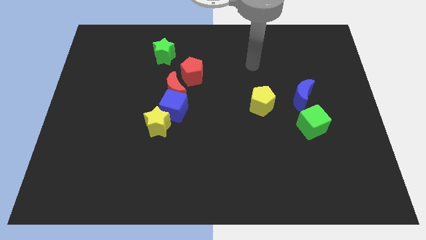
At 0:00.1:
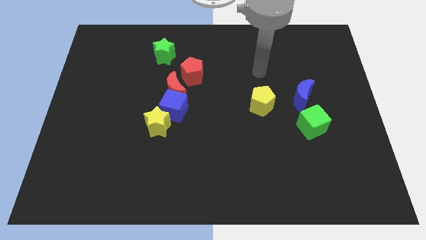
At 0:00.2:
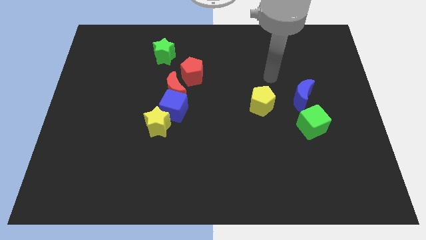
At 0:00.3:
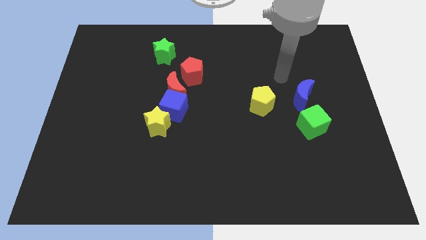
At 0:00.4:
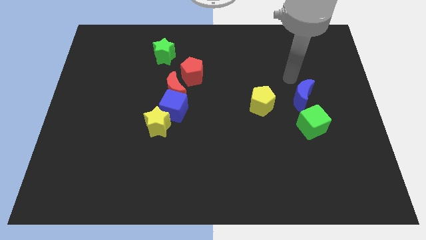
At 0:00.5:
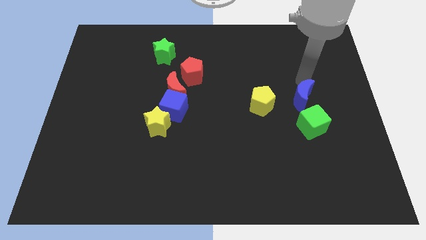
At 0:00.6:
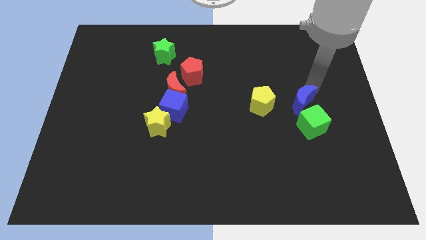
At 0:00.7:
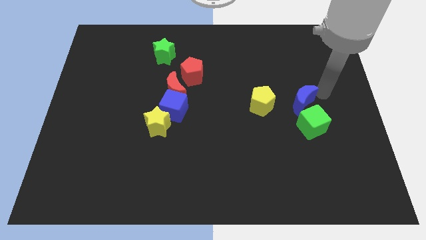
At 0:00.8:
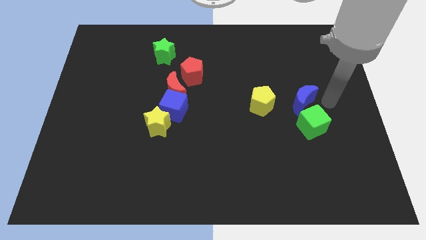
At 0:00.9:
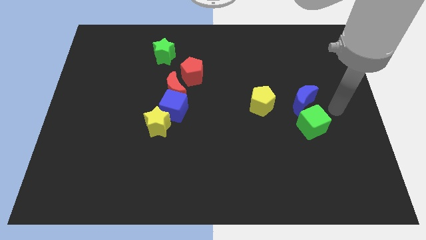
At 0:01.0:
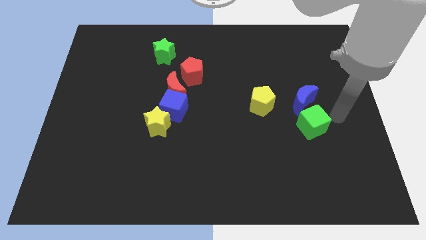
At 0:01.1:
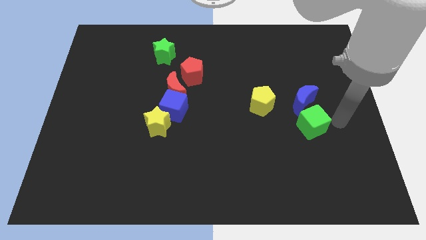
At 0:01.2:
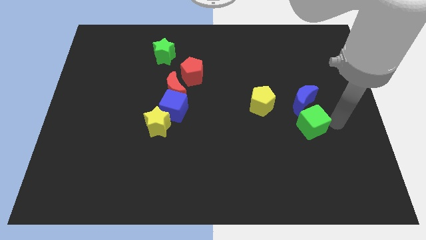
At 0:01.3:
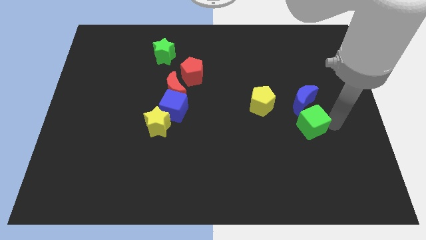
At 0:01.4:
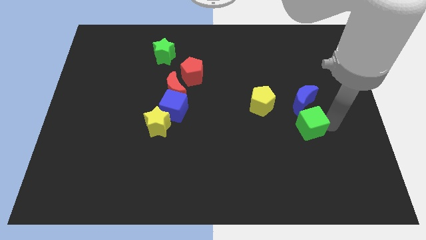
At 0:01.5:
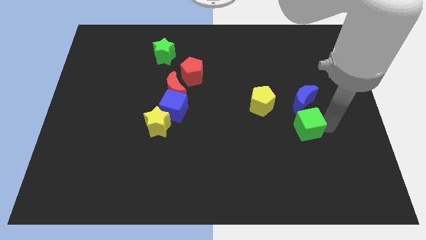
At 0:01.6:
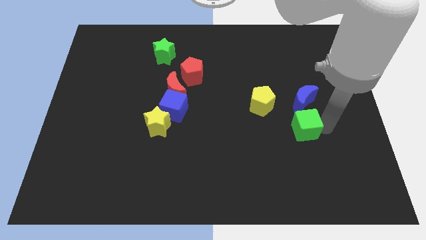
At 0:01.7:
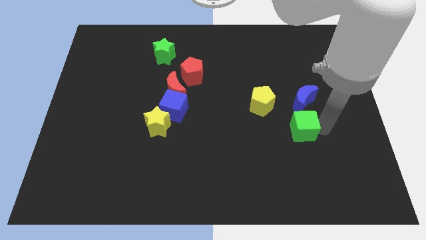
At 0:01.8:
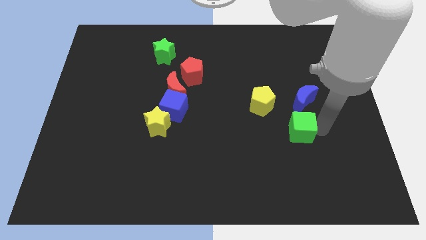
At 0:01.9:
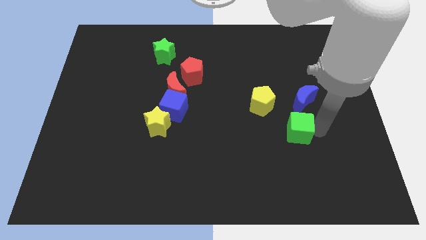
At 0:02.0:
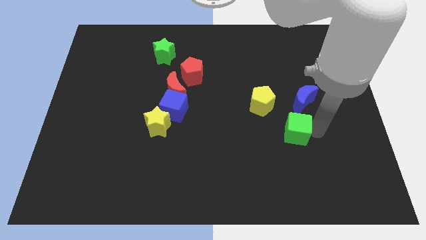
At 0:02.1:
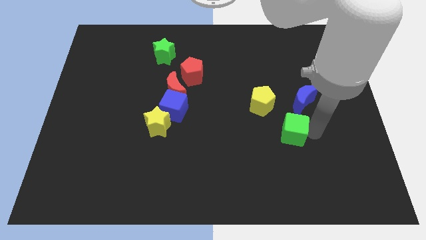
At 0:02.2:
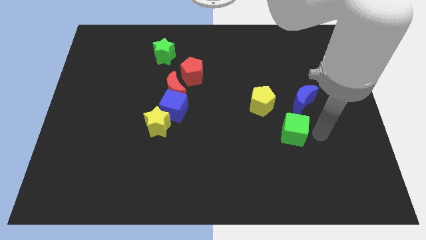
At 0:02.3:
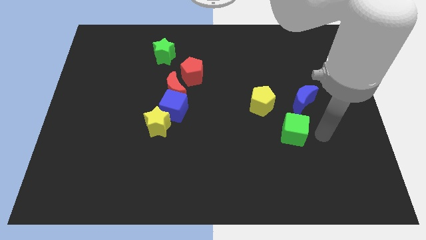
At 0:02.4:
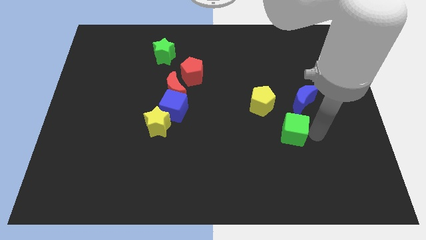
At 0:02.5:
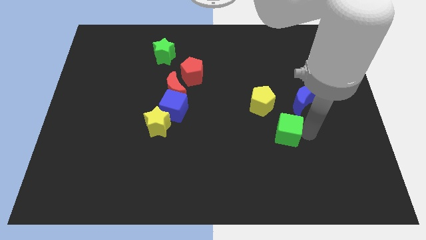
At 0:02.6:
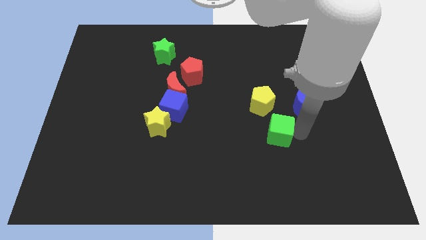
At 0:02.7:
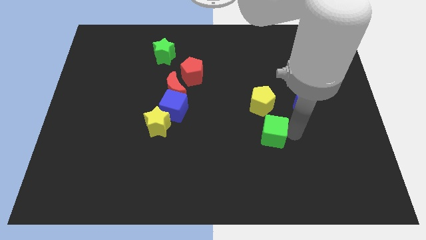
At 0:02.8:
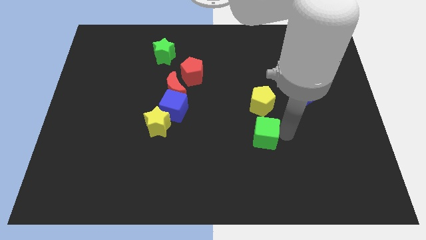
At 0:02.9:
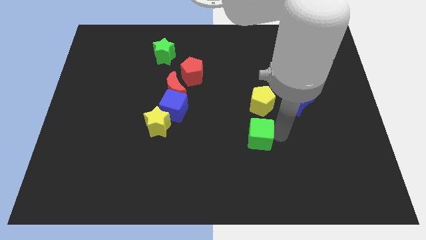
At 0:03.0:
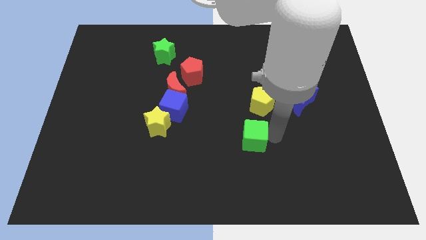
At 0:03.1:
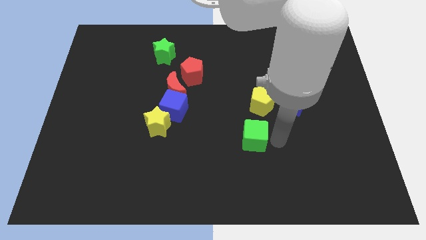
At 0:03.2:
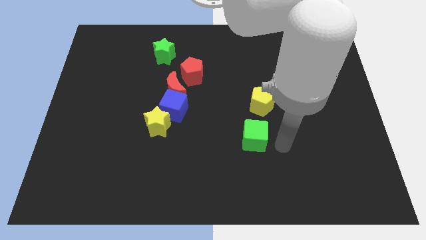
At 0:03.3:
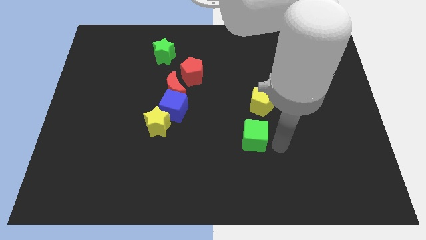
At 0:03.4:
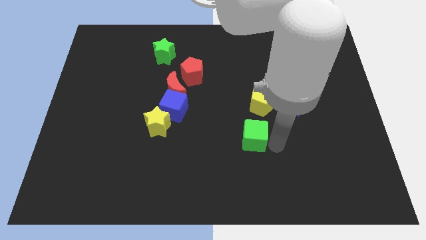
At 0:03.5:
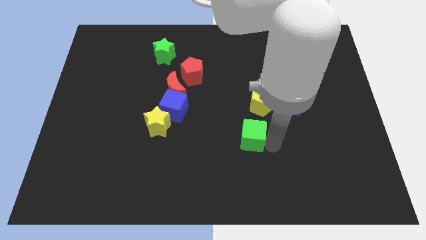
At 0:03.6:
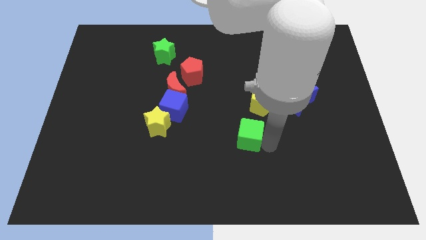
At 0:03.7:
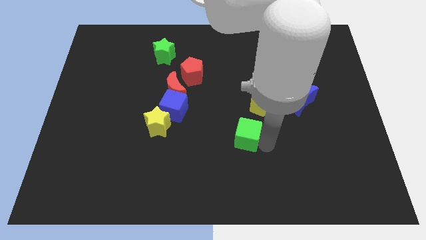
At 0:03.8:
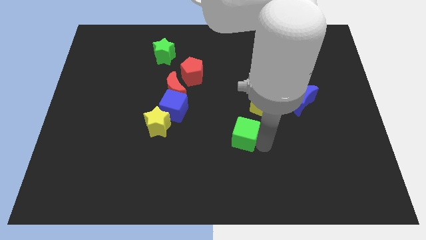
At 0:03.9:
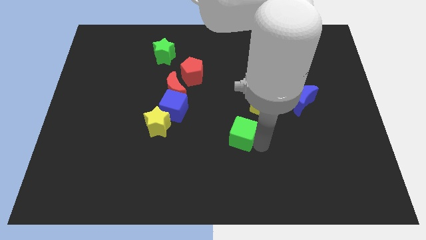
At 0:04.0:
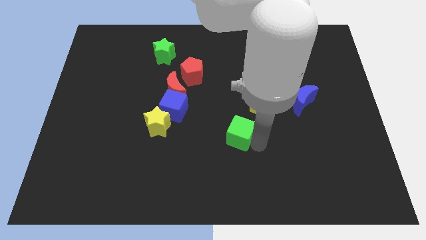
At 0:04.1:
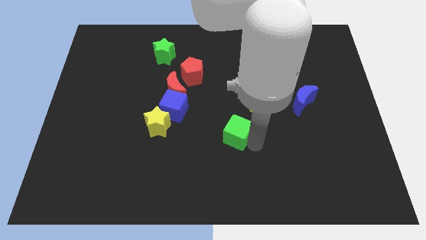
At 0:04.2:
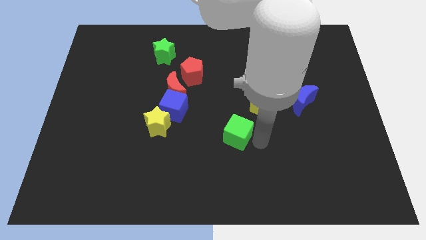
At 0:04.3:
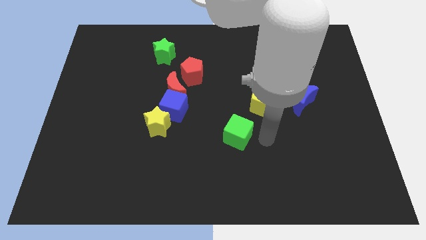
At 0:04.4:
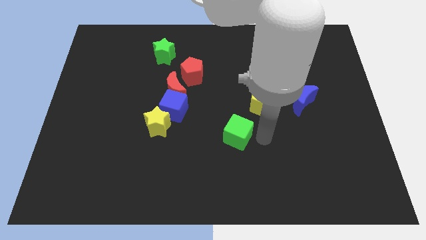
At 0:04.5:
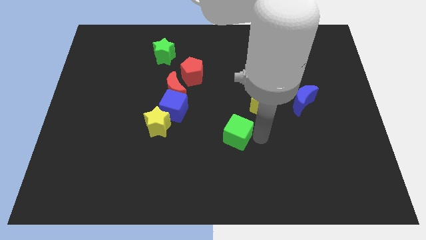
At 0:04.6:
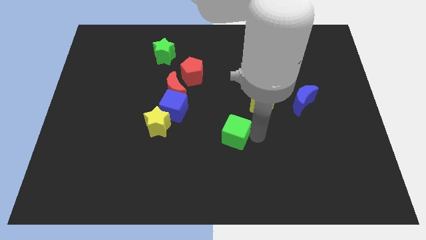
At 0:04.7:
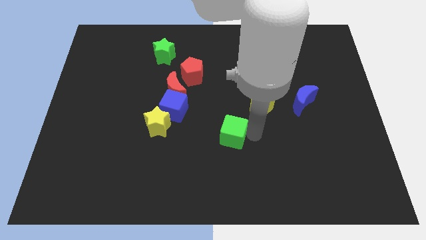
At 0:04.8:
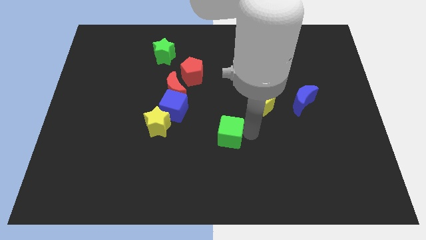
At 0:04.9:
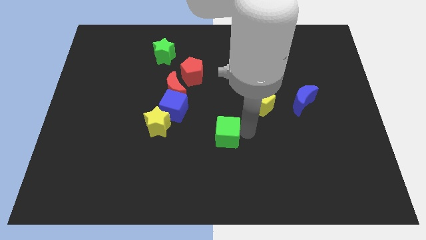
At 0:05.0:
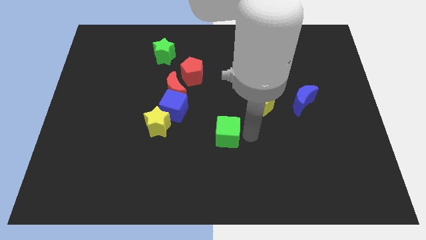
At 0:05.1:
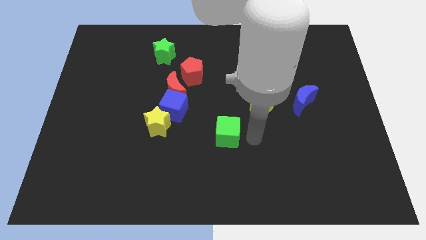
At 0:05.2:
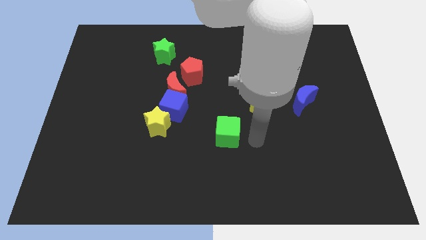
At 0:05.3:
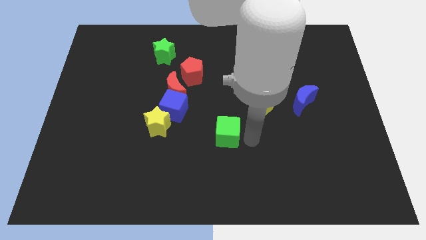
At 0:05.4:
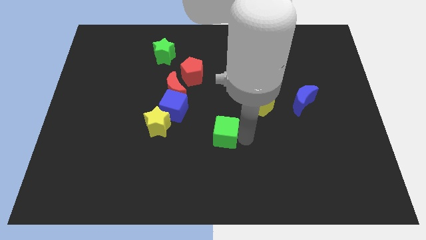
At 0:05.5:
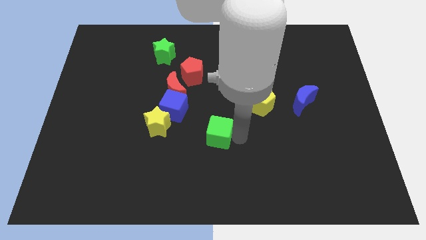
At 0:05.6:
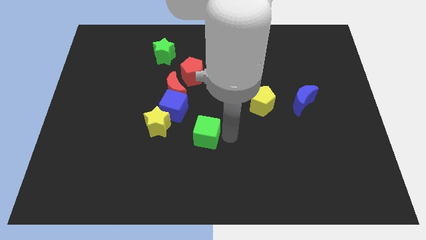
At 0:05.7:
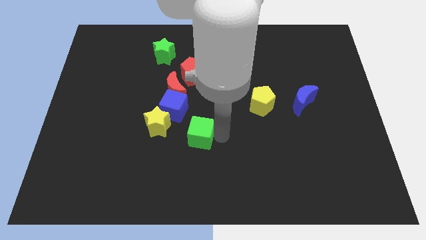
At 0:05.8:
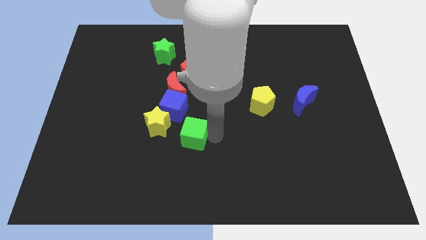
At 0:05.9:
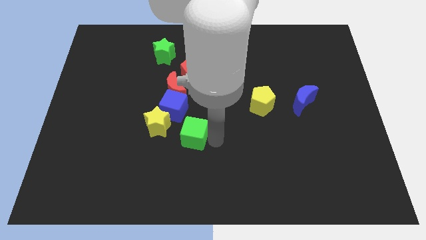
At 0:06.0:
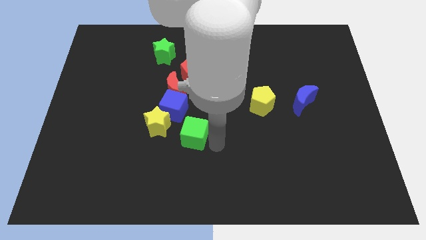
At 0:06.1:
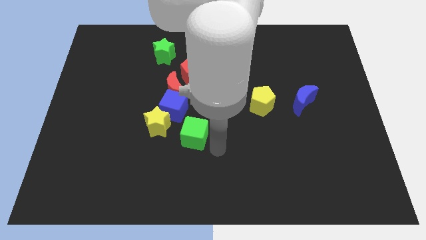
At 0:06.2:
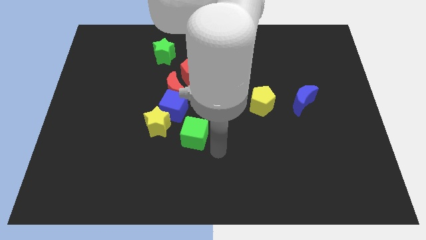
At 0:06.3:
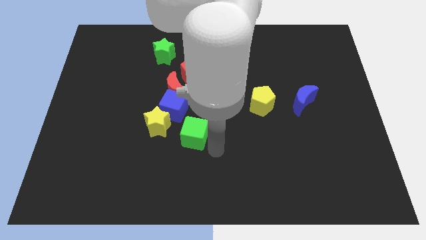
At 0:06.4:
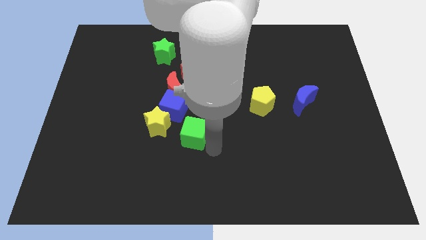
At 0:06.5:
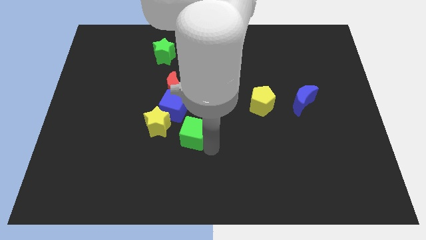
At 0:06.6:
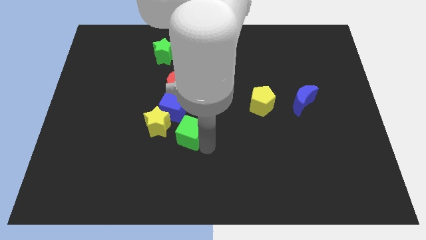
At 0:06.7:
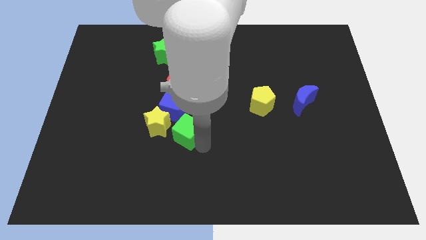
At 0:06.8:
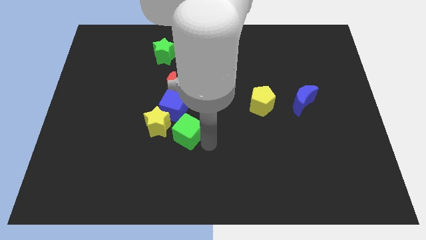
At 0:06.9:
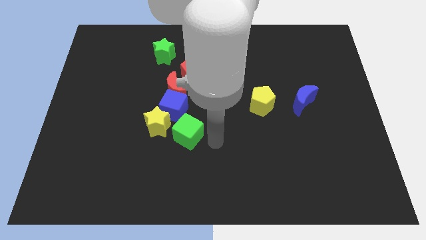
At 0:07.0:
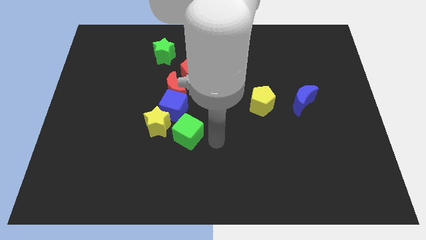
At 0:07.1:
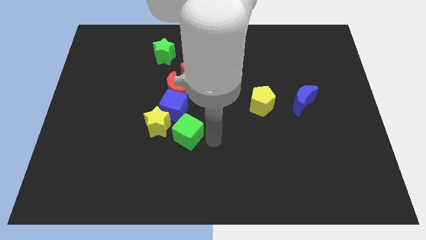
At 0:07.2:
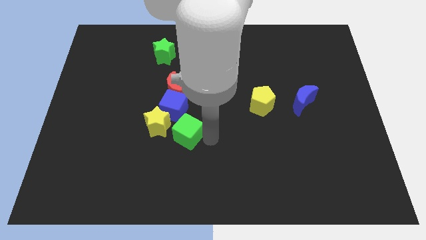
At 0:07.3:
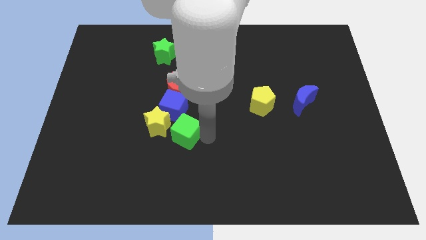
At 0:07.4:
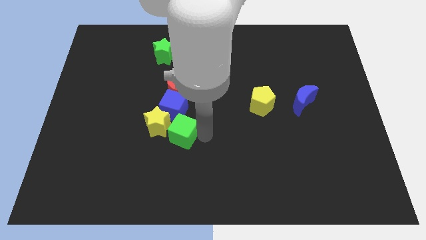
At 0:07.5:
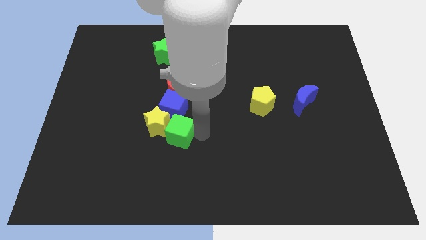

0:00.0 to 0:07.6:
push the green cube towards the yellow star
